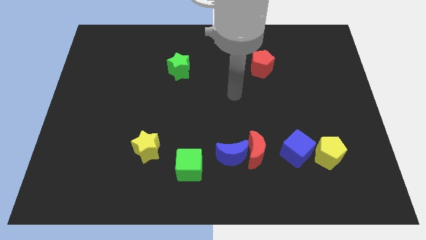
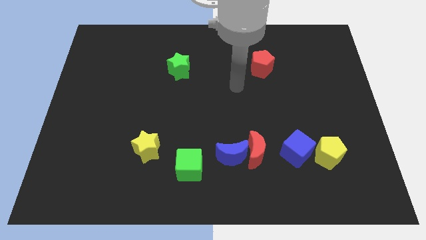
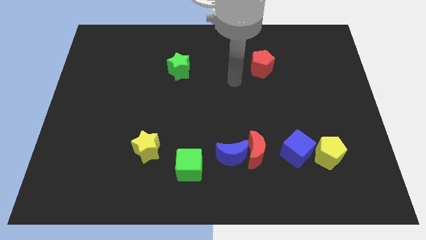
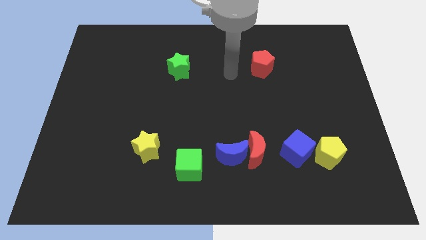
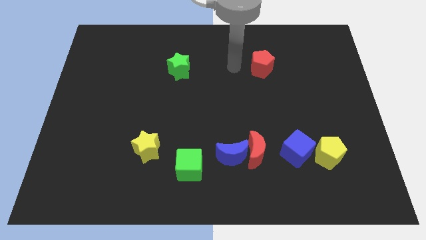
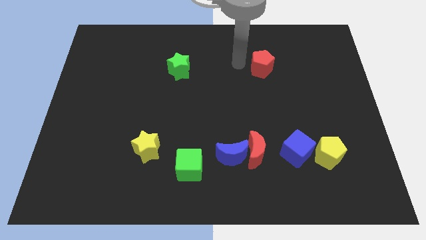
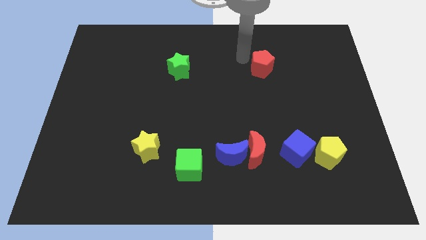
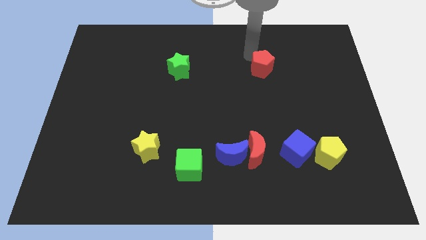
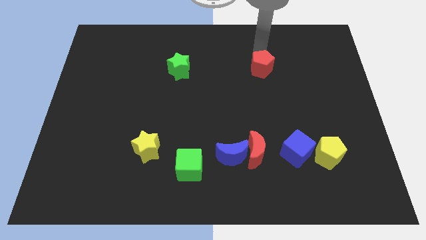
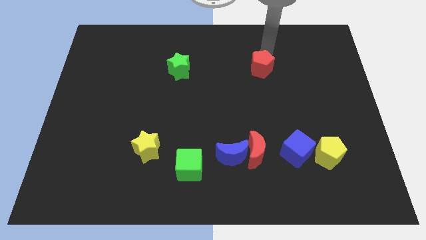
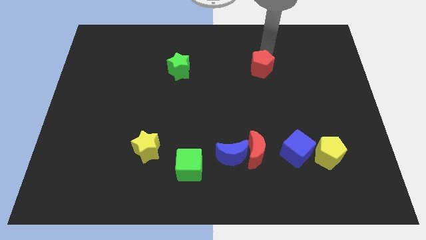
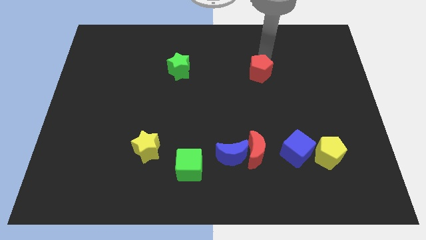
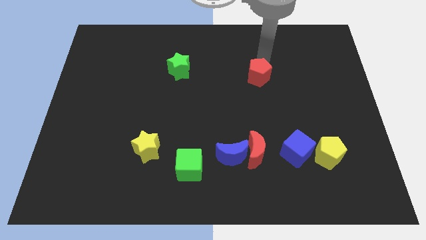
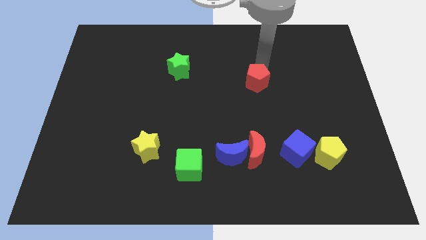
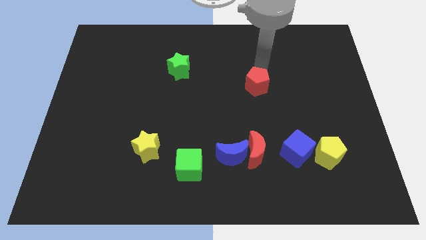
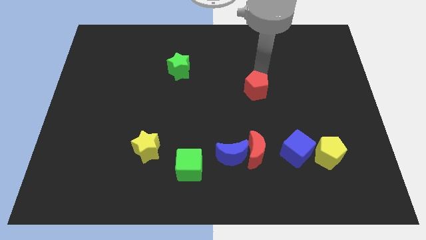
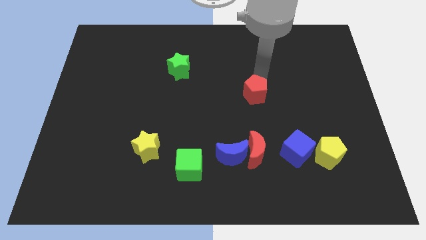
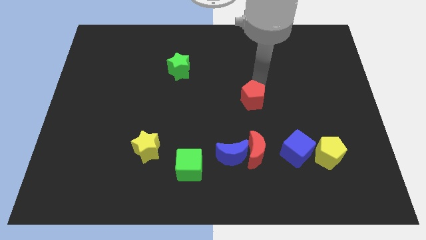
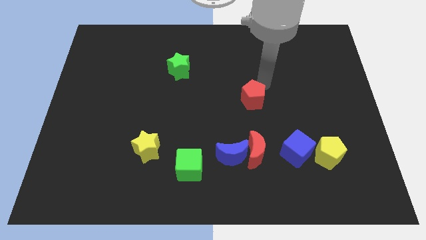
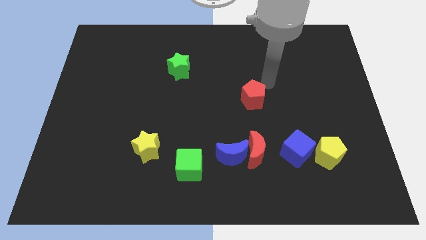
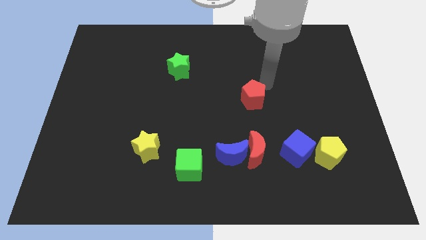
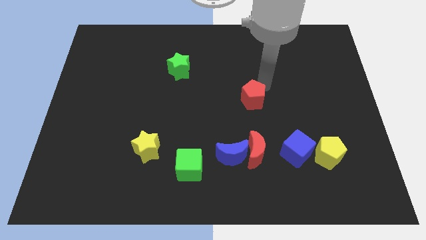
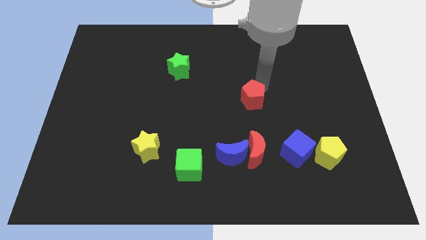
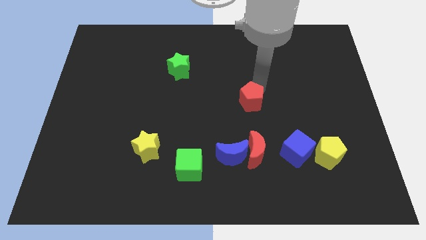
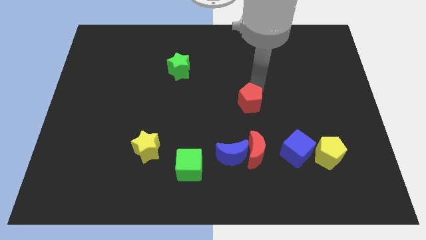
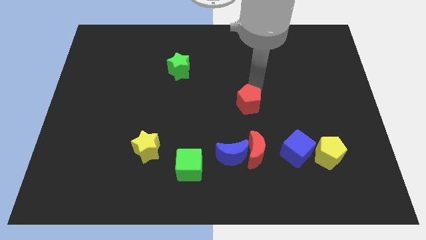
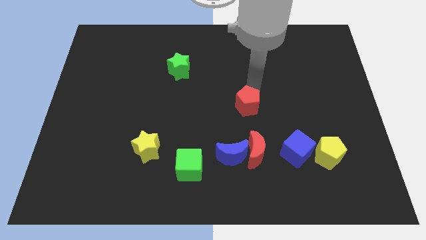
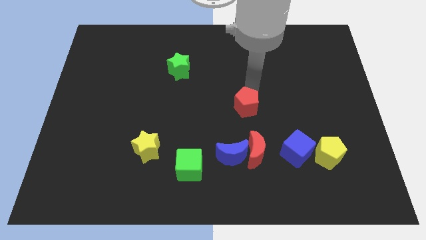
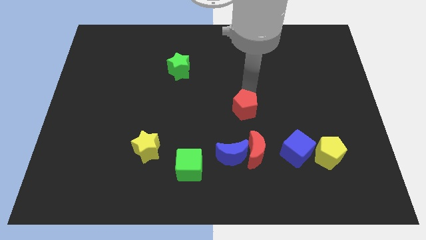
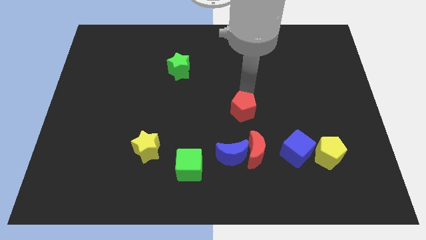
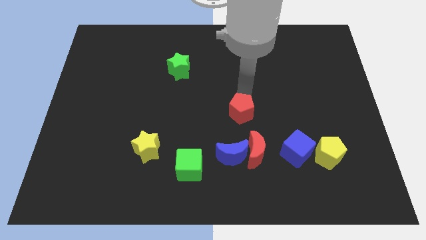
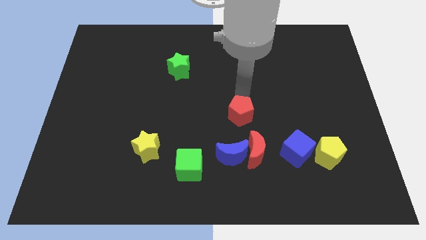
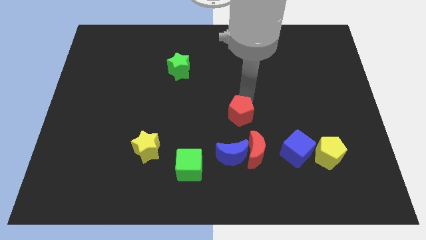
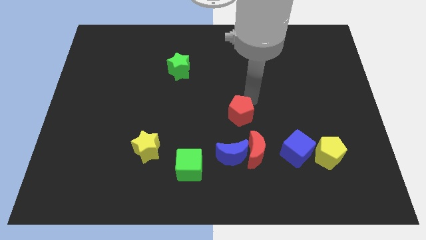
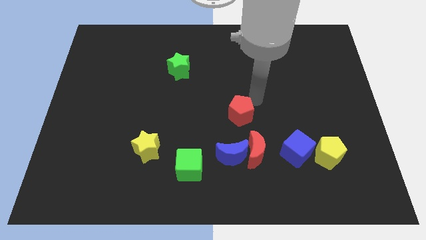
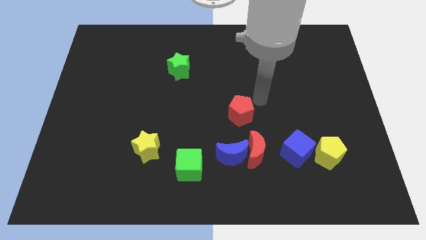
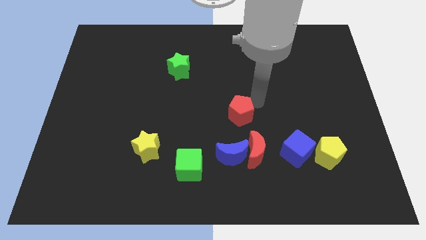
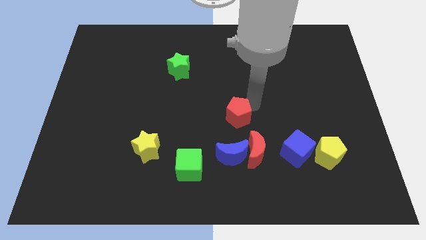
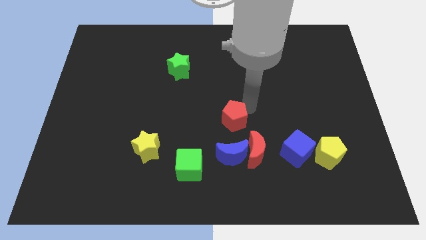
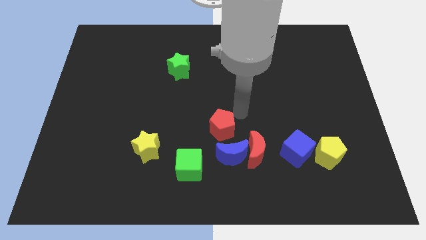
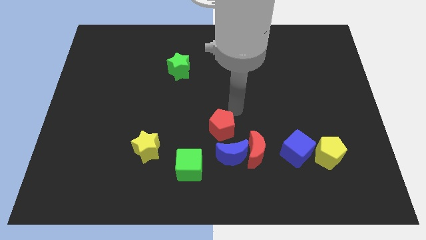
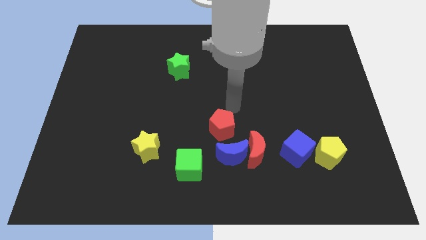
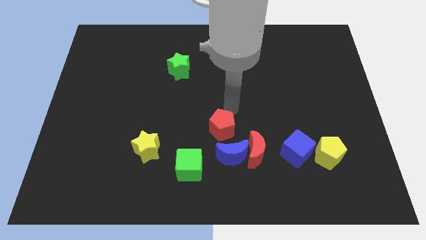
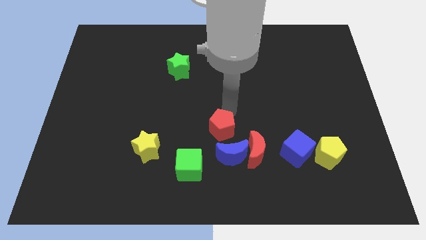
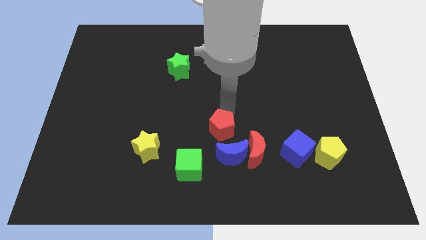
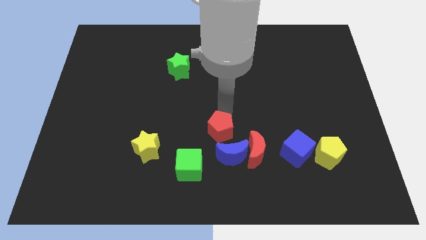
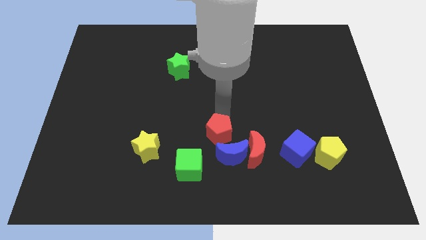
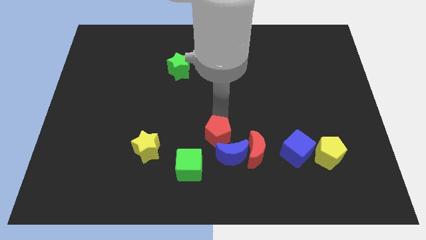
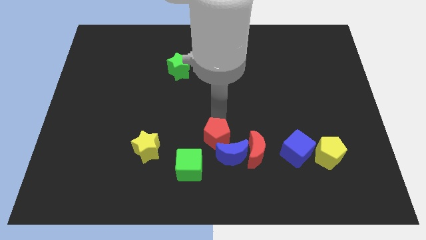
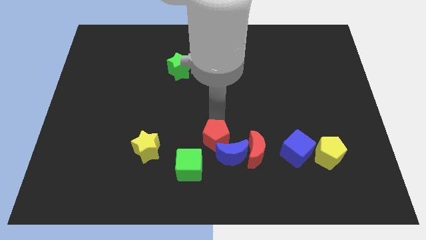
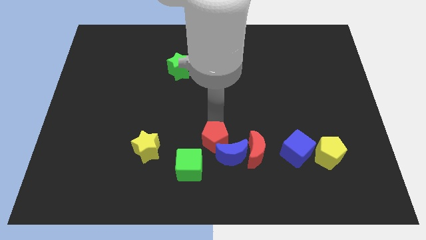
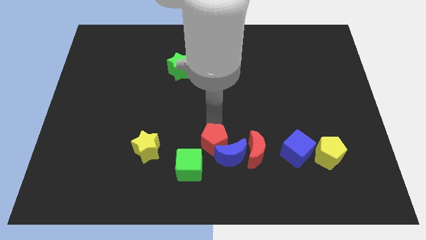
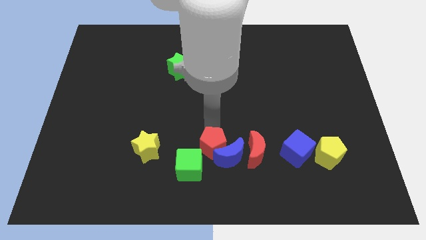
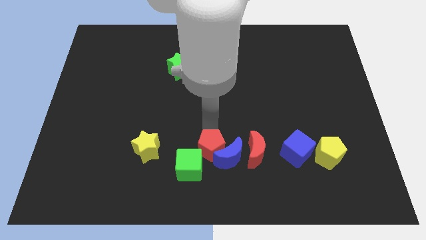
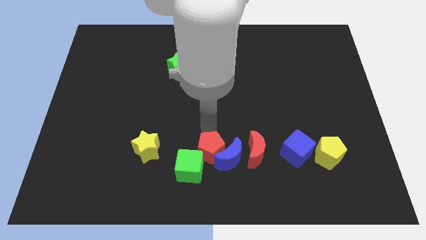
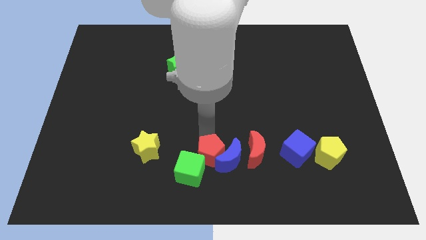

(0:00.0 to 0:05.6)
put the red pentagon to the bottom side
